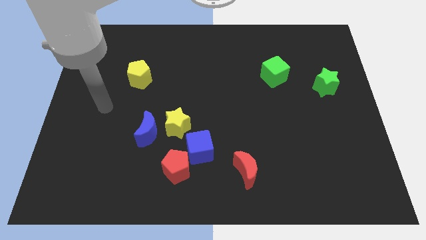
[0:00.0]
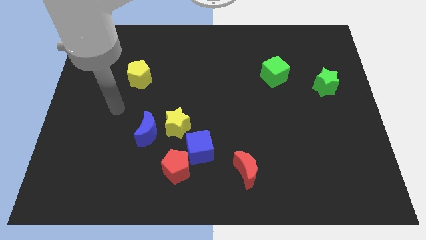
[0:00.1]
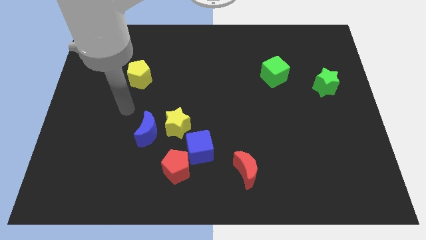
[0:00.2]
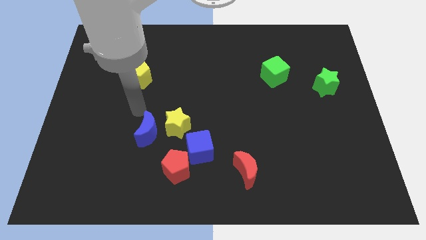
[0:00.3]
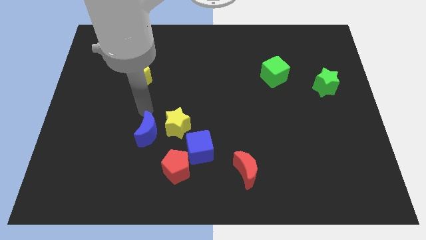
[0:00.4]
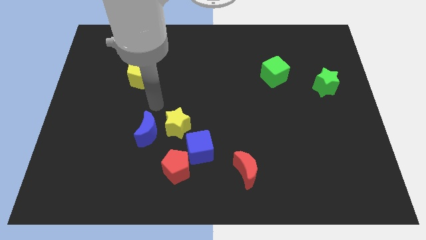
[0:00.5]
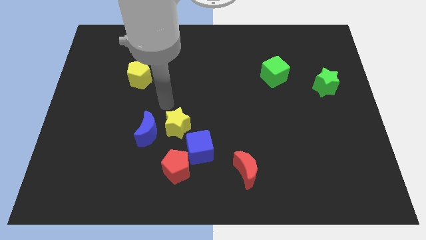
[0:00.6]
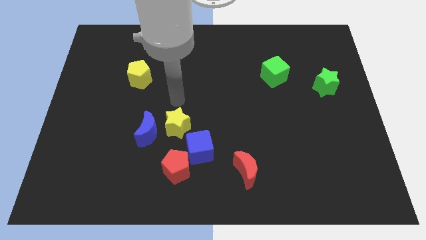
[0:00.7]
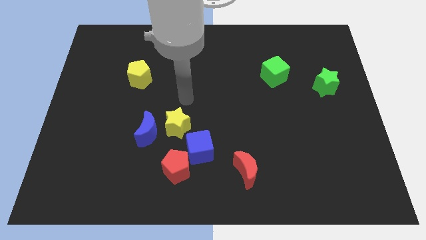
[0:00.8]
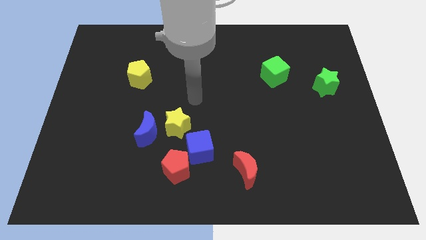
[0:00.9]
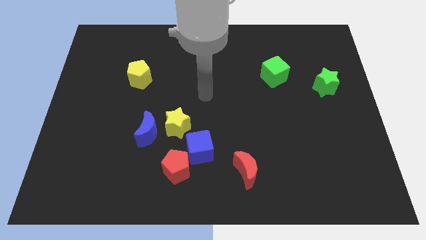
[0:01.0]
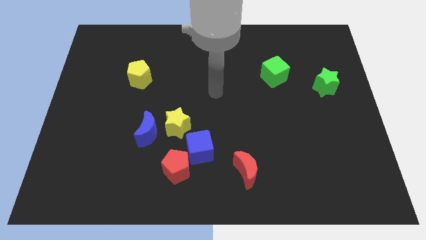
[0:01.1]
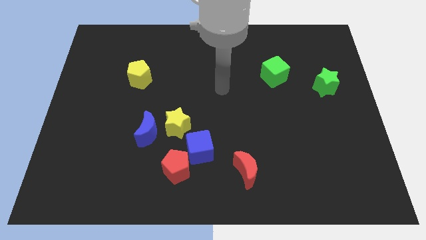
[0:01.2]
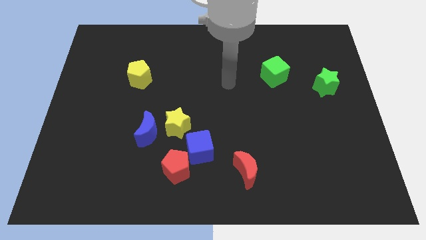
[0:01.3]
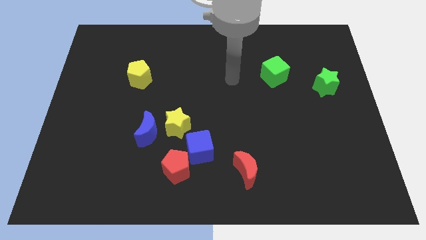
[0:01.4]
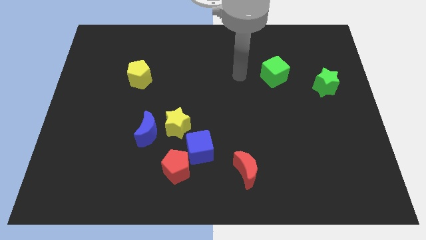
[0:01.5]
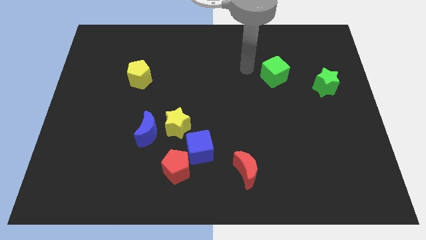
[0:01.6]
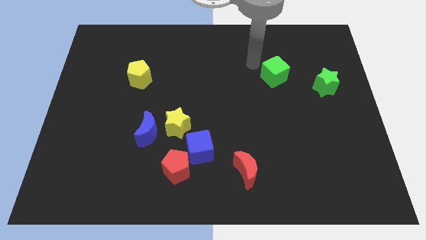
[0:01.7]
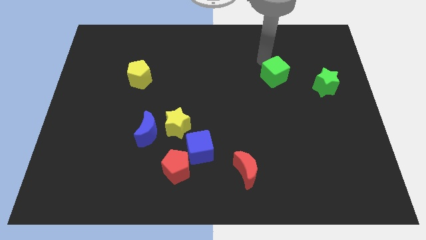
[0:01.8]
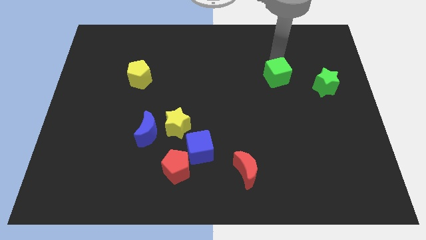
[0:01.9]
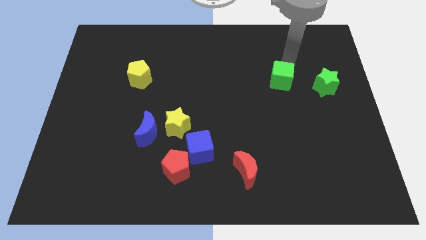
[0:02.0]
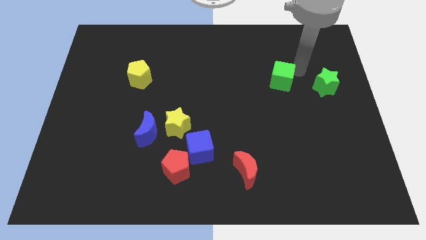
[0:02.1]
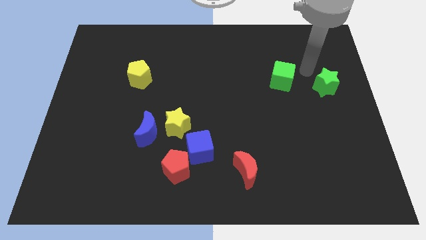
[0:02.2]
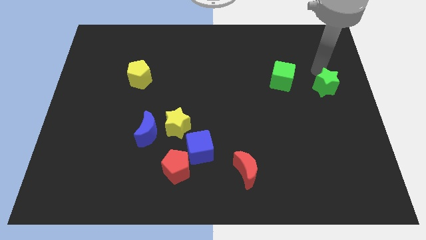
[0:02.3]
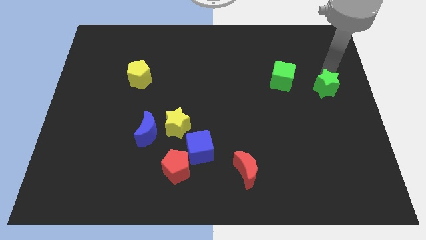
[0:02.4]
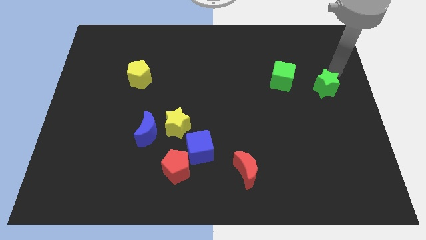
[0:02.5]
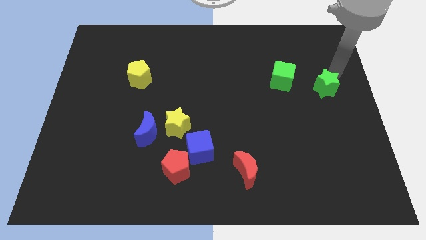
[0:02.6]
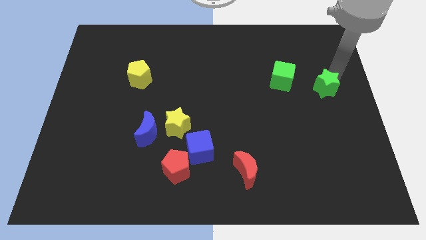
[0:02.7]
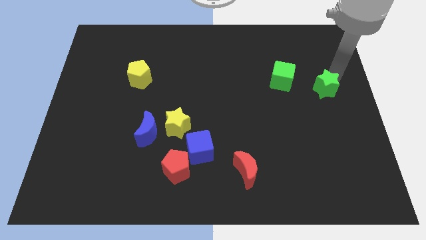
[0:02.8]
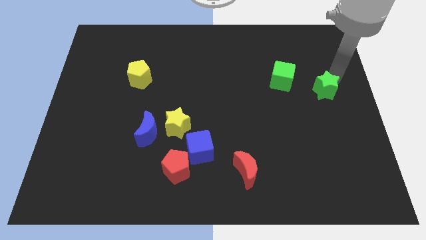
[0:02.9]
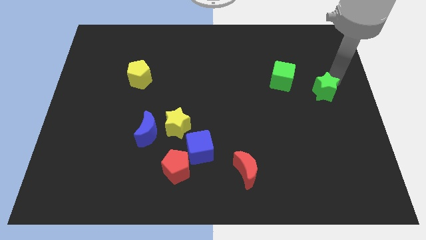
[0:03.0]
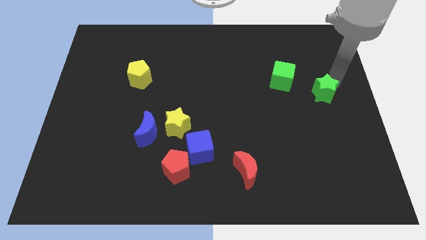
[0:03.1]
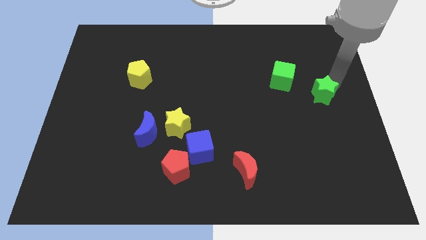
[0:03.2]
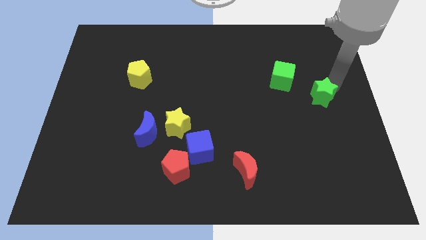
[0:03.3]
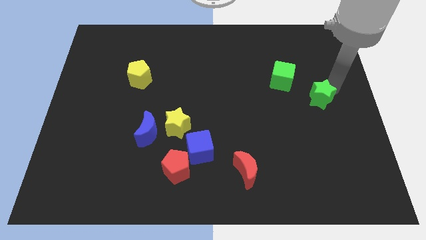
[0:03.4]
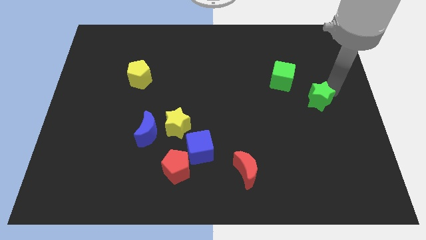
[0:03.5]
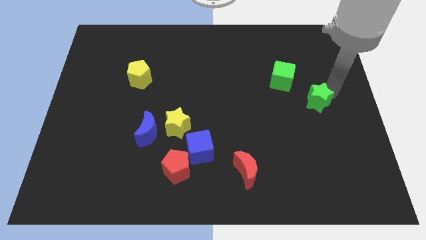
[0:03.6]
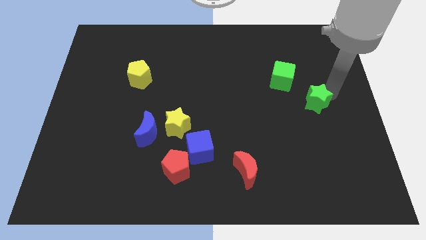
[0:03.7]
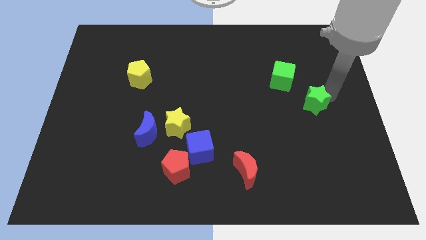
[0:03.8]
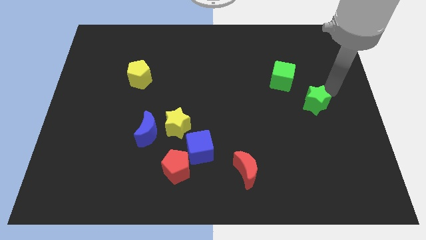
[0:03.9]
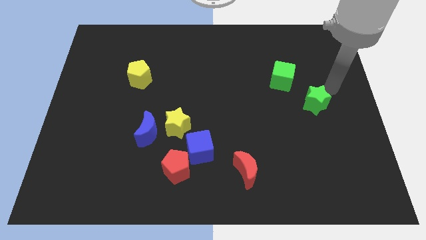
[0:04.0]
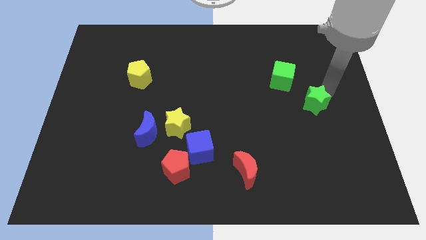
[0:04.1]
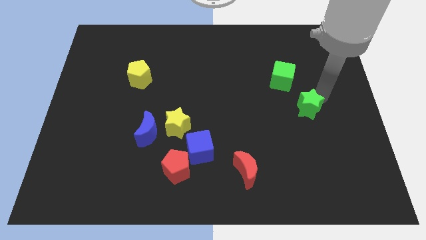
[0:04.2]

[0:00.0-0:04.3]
slide the green star slightly diagonally downwards and left

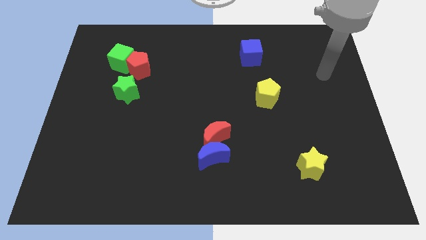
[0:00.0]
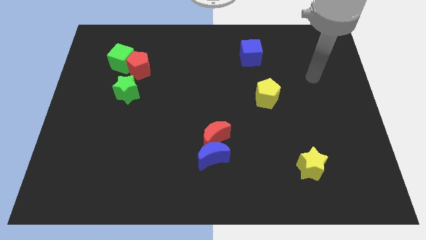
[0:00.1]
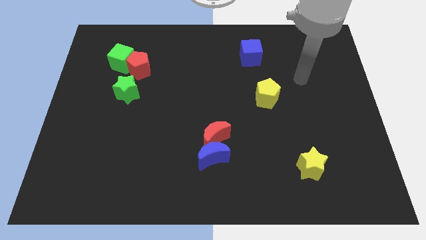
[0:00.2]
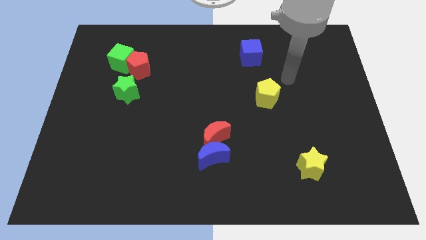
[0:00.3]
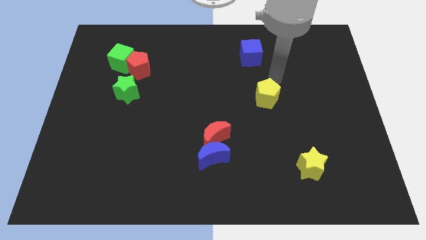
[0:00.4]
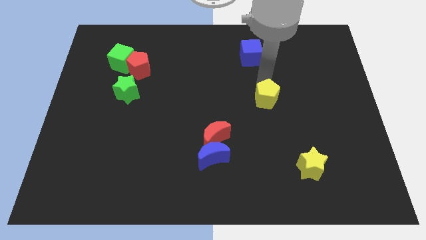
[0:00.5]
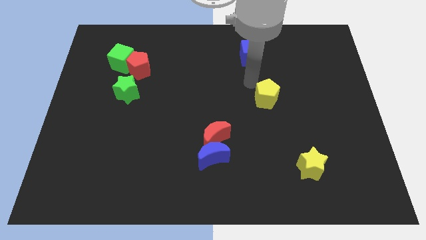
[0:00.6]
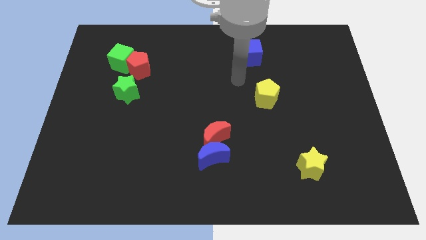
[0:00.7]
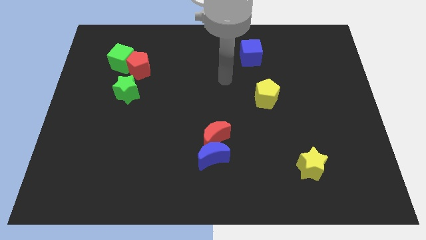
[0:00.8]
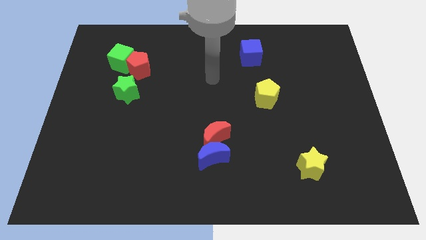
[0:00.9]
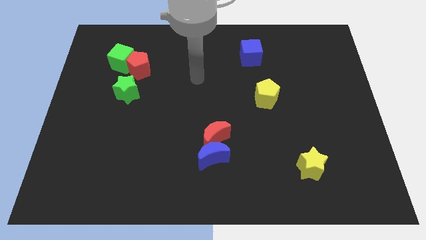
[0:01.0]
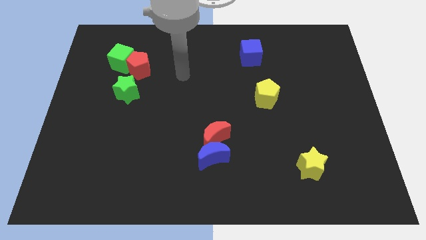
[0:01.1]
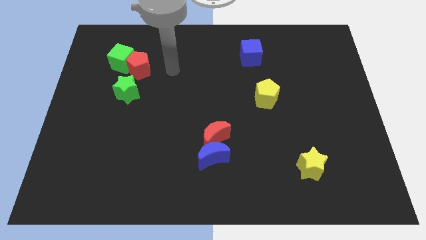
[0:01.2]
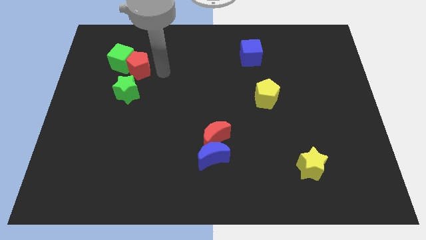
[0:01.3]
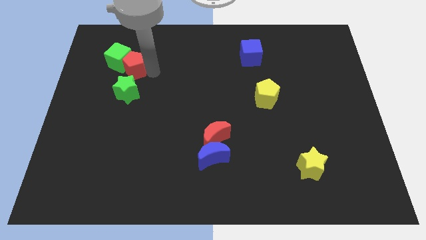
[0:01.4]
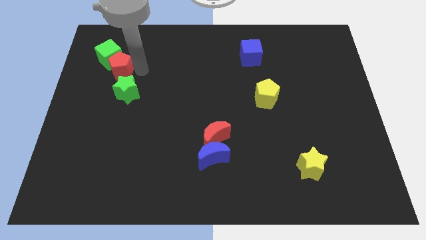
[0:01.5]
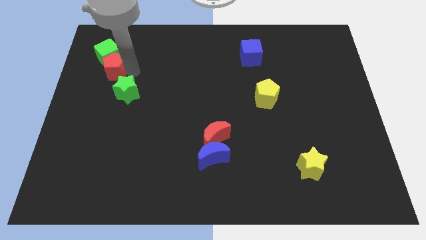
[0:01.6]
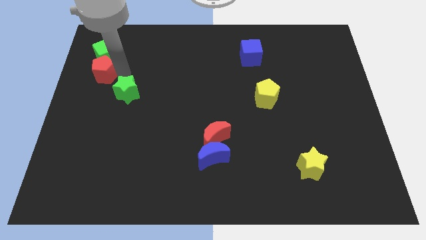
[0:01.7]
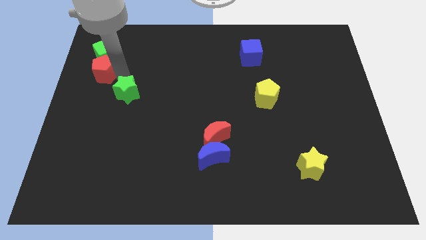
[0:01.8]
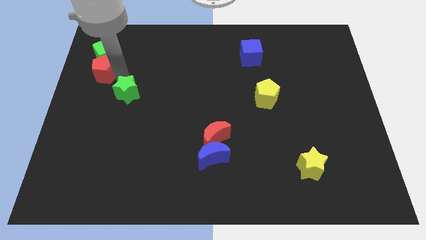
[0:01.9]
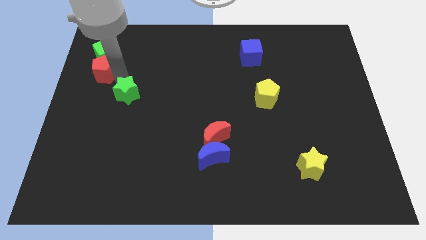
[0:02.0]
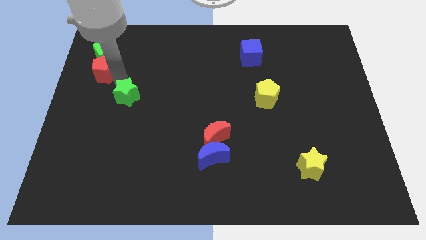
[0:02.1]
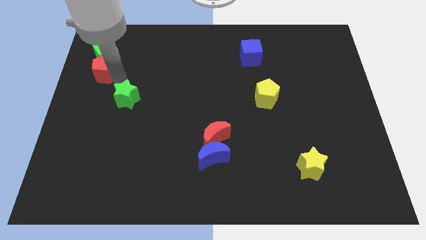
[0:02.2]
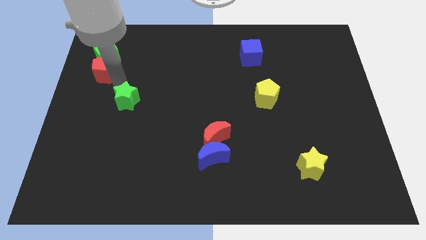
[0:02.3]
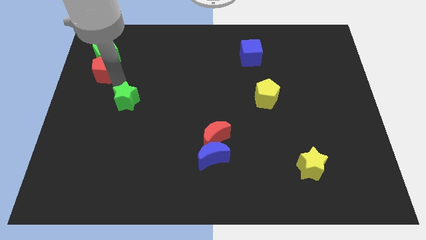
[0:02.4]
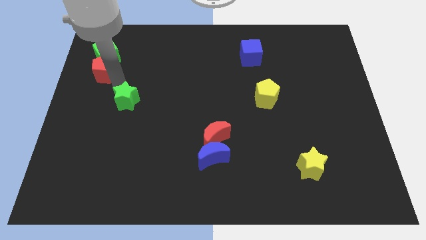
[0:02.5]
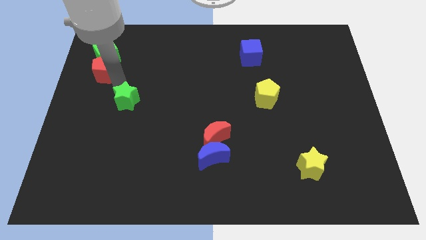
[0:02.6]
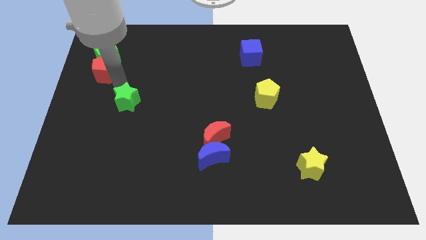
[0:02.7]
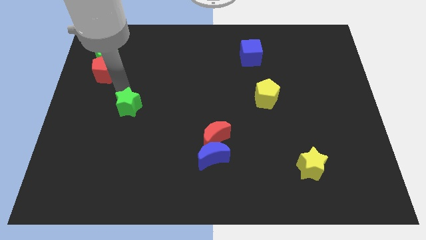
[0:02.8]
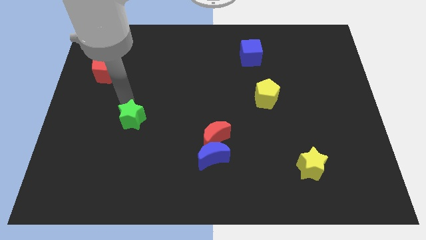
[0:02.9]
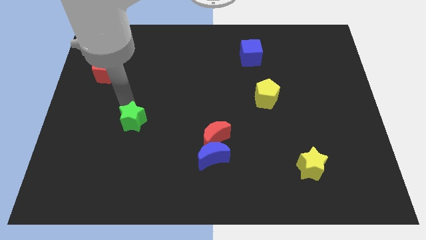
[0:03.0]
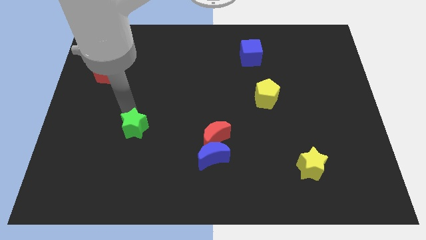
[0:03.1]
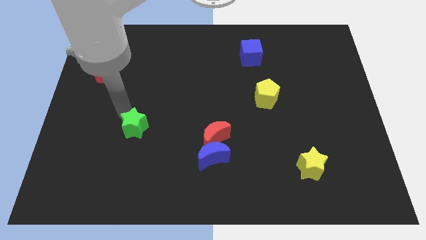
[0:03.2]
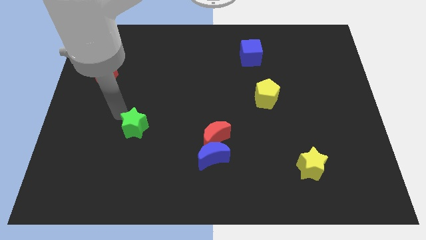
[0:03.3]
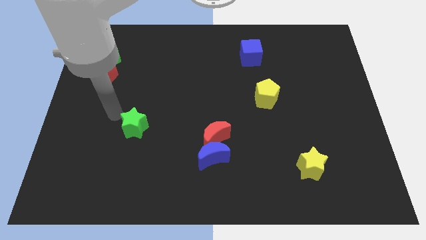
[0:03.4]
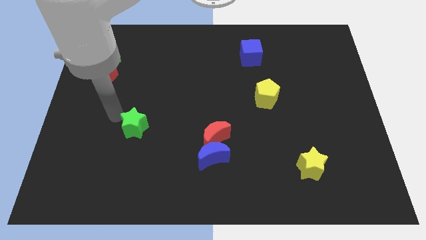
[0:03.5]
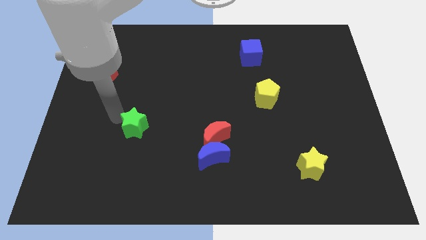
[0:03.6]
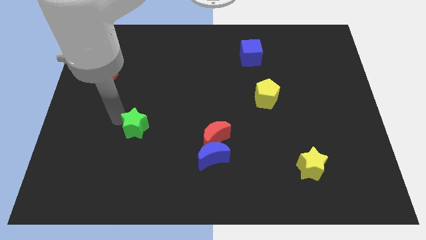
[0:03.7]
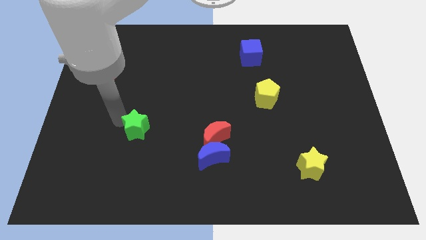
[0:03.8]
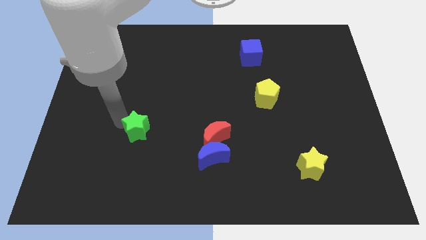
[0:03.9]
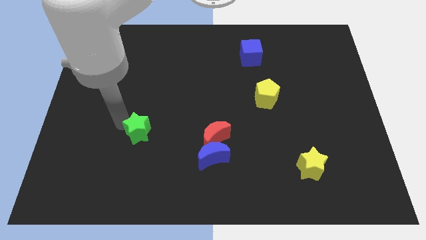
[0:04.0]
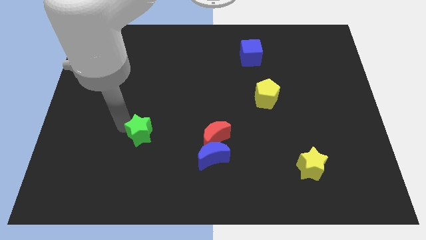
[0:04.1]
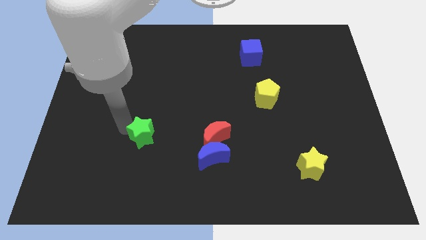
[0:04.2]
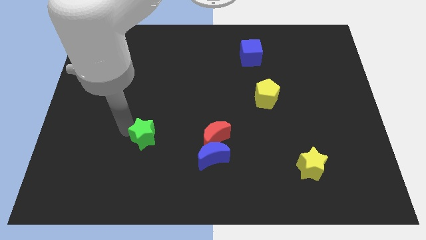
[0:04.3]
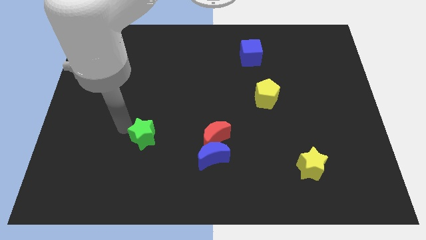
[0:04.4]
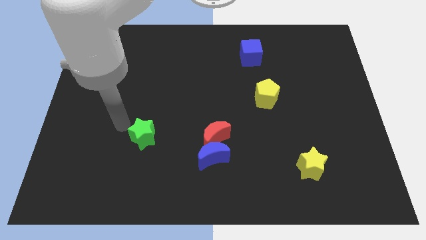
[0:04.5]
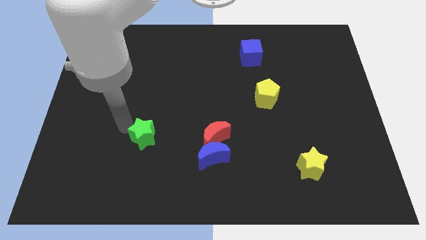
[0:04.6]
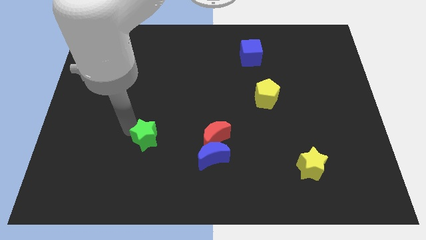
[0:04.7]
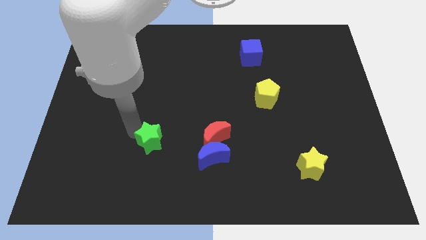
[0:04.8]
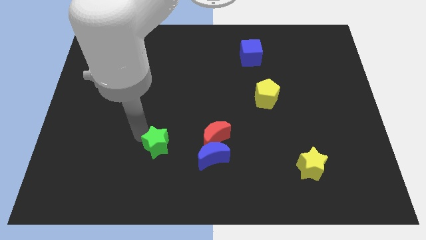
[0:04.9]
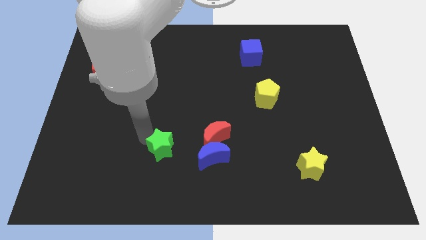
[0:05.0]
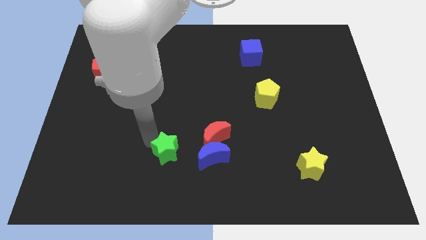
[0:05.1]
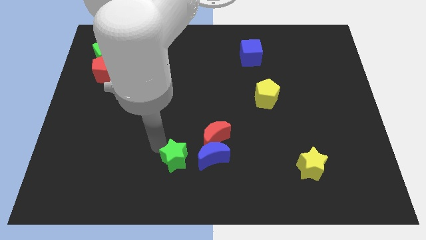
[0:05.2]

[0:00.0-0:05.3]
move the green star downwards and to the right diagonally
